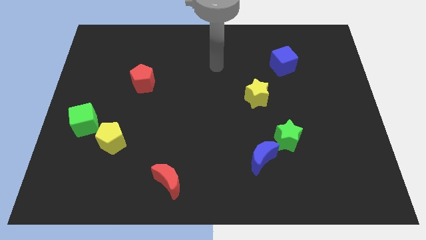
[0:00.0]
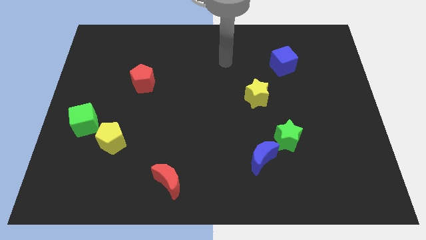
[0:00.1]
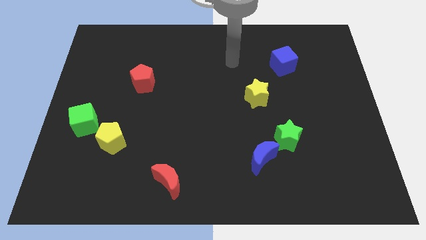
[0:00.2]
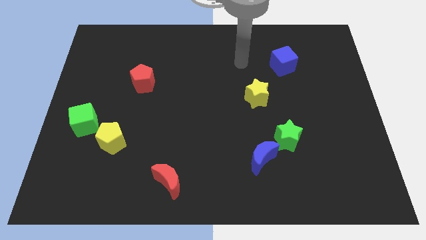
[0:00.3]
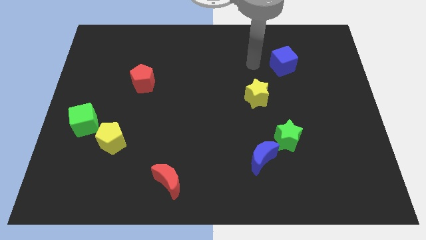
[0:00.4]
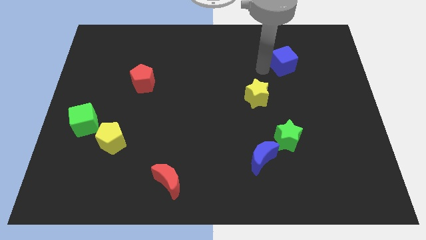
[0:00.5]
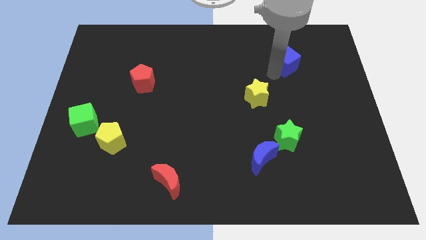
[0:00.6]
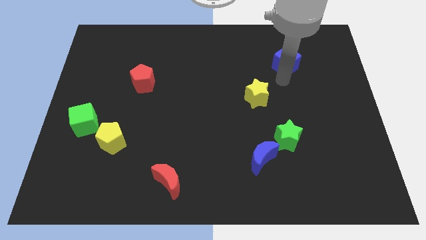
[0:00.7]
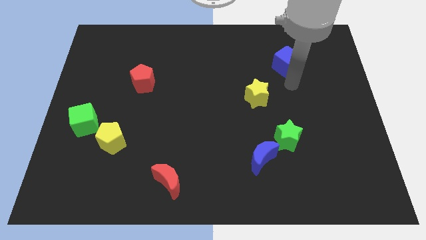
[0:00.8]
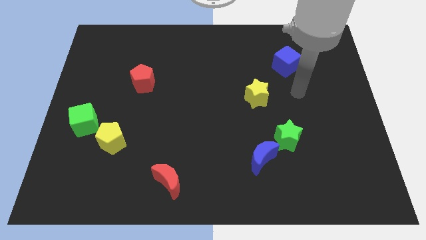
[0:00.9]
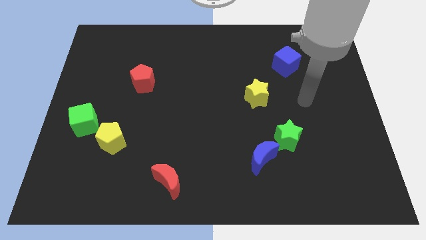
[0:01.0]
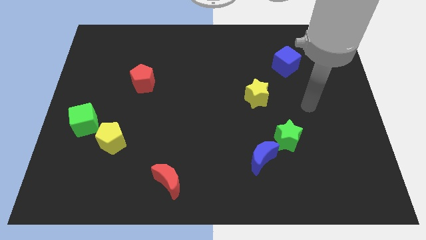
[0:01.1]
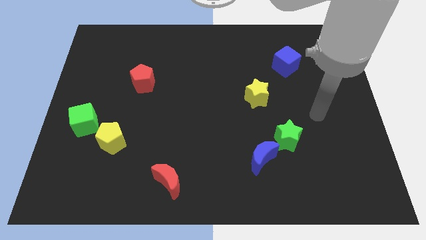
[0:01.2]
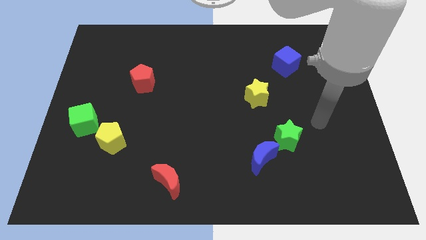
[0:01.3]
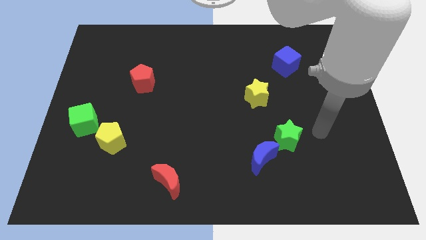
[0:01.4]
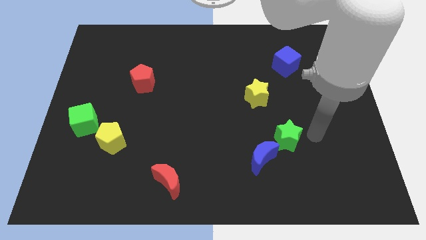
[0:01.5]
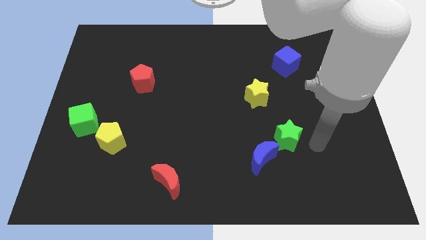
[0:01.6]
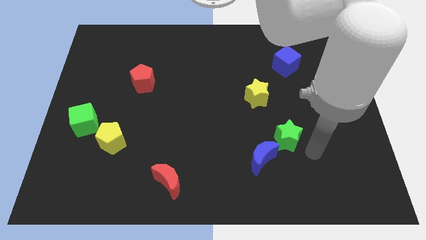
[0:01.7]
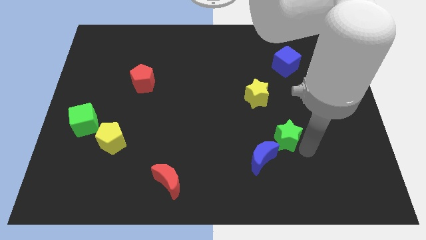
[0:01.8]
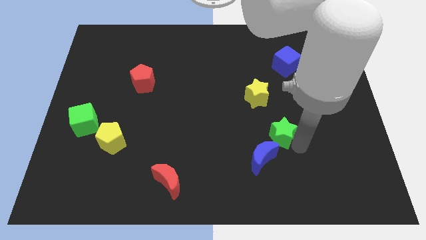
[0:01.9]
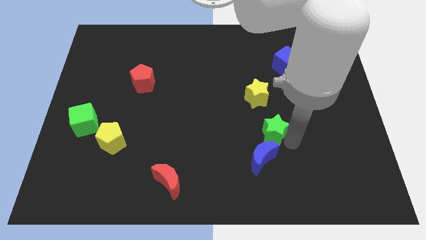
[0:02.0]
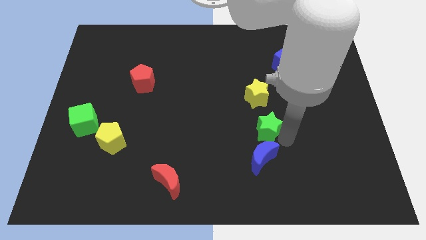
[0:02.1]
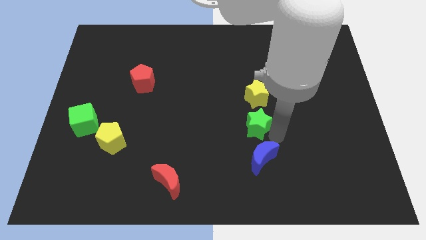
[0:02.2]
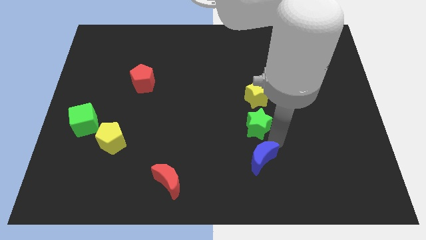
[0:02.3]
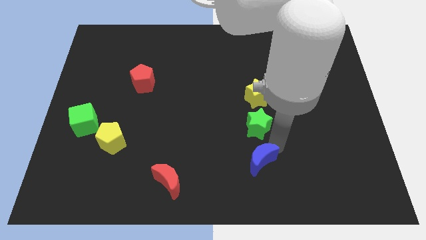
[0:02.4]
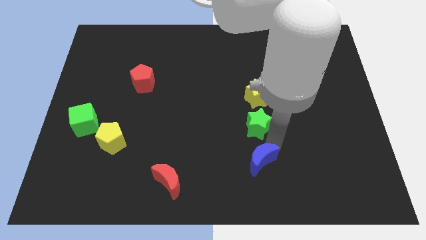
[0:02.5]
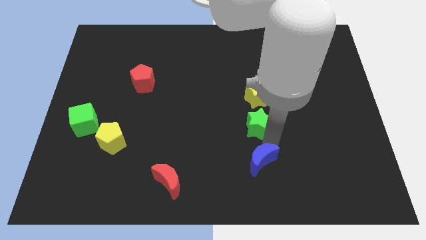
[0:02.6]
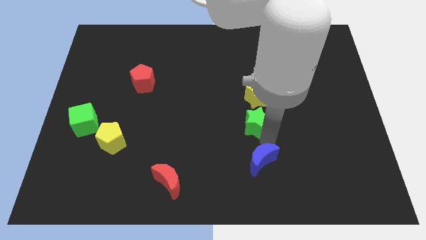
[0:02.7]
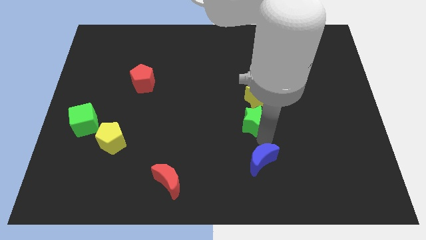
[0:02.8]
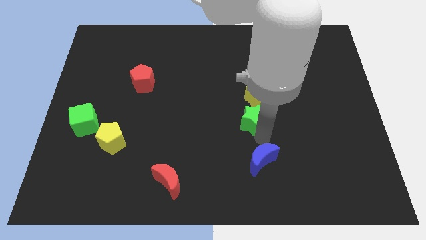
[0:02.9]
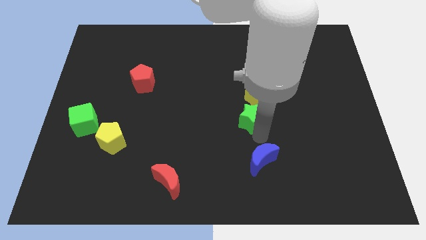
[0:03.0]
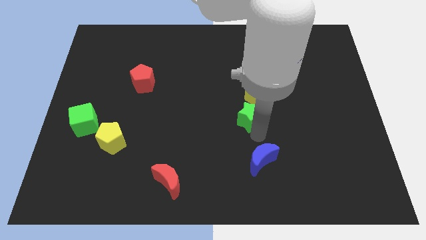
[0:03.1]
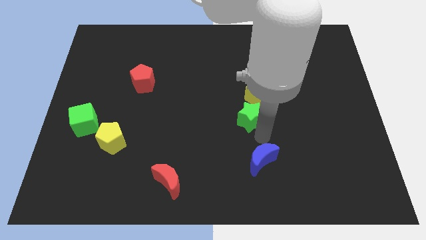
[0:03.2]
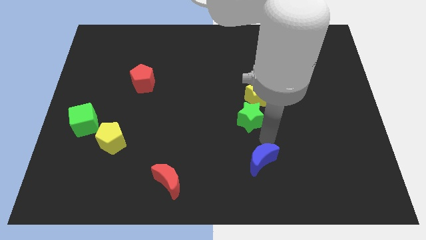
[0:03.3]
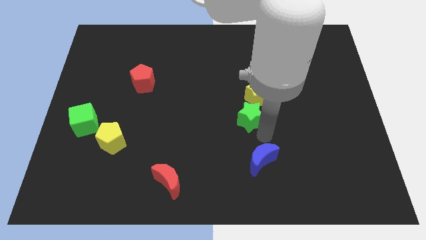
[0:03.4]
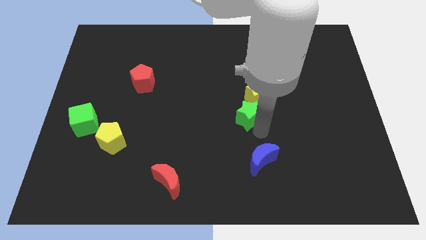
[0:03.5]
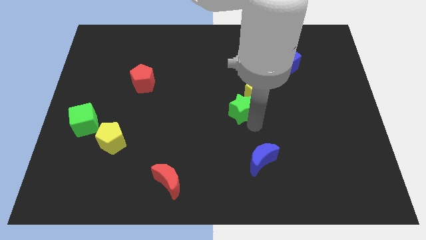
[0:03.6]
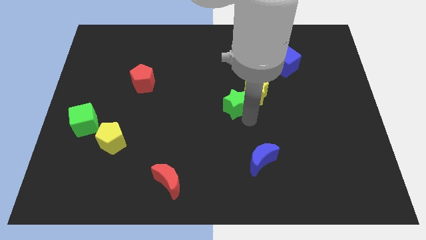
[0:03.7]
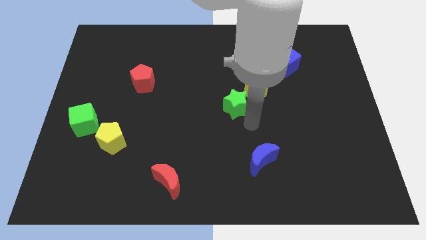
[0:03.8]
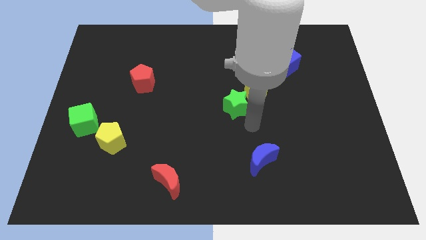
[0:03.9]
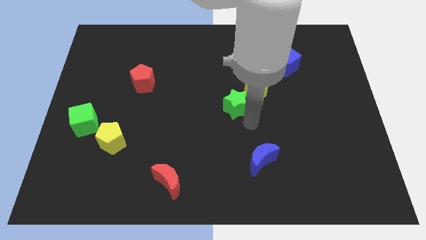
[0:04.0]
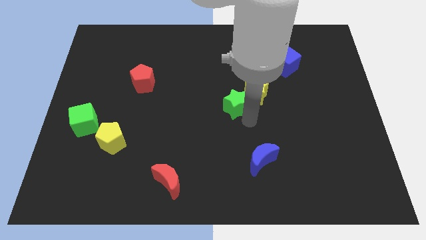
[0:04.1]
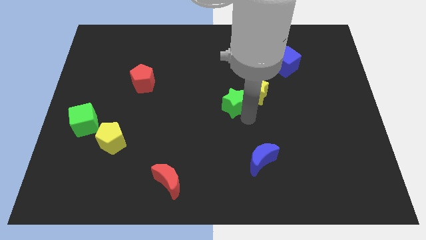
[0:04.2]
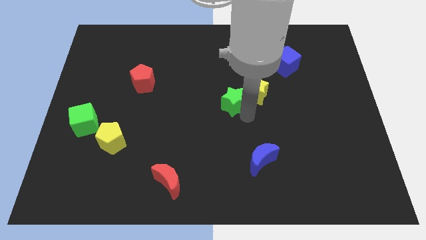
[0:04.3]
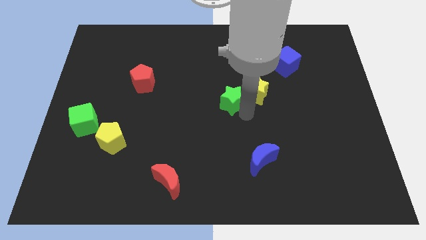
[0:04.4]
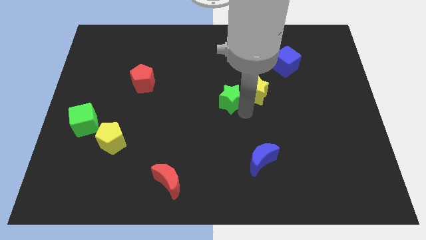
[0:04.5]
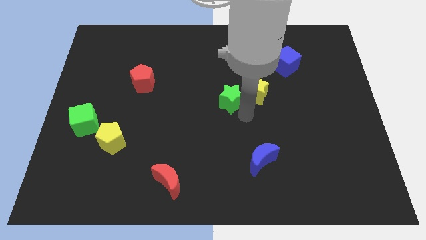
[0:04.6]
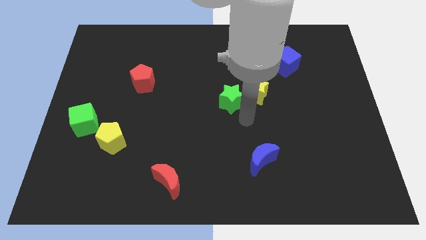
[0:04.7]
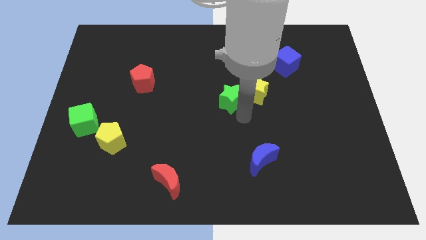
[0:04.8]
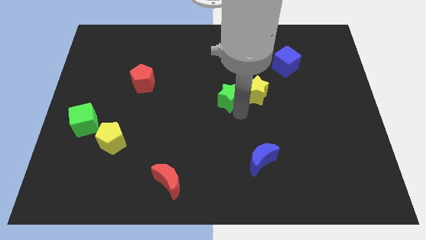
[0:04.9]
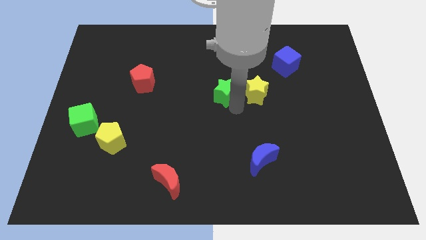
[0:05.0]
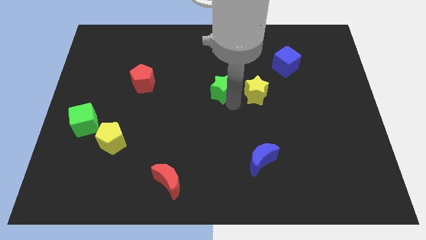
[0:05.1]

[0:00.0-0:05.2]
slide the green star diagonally up and left

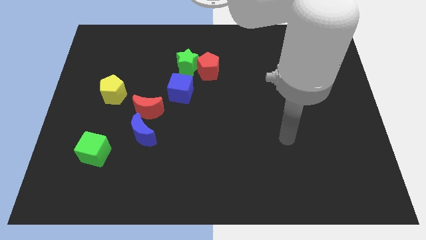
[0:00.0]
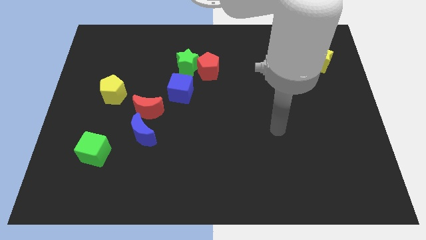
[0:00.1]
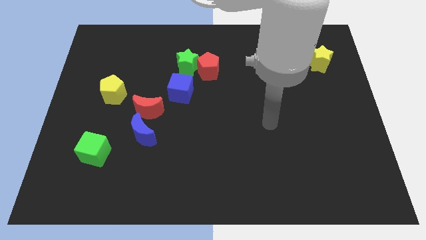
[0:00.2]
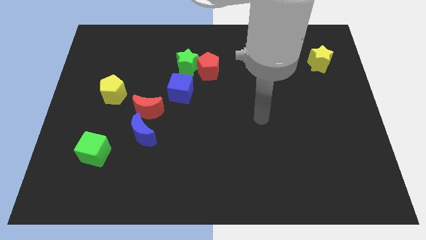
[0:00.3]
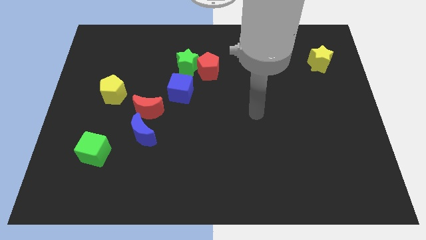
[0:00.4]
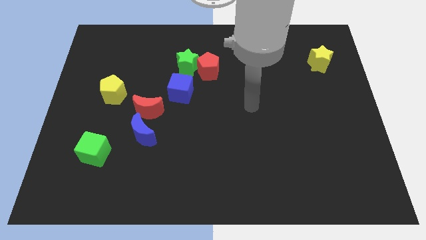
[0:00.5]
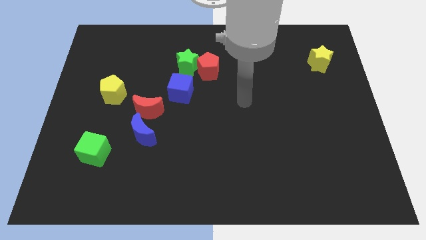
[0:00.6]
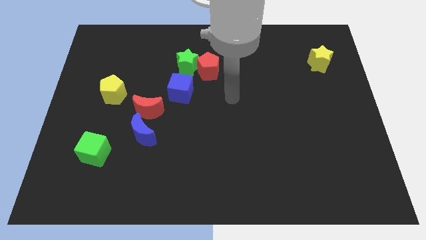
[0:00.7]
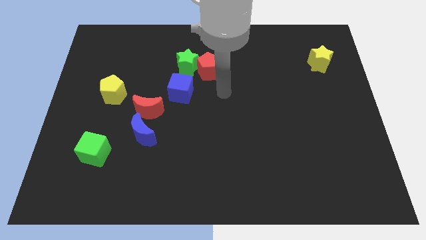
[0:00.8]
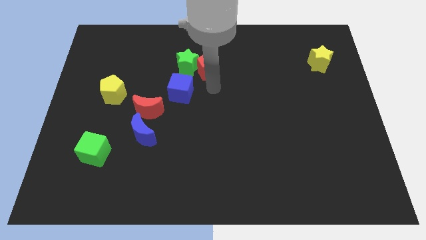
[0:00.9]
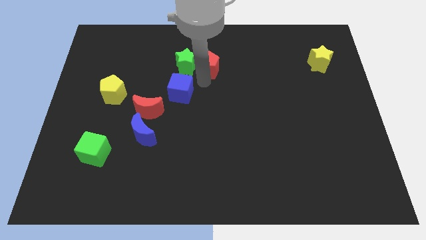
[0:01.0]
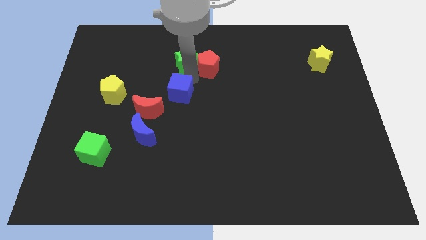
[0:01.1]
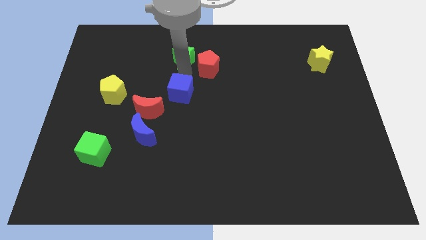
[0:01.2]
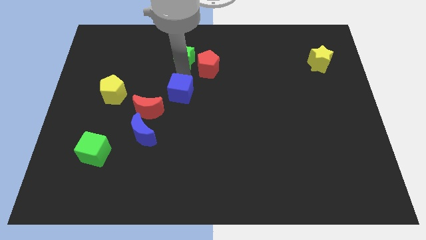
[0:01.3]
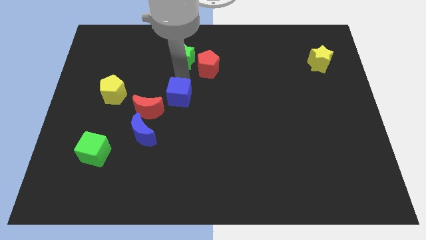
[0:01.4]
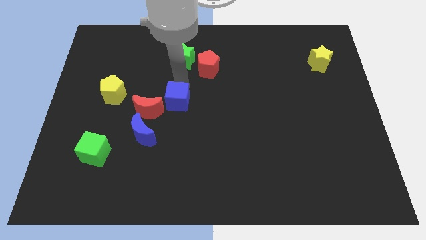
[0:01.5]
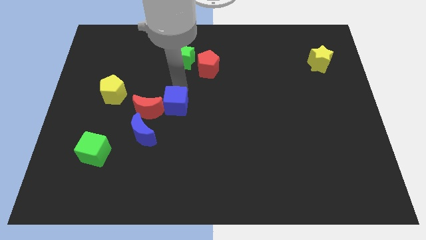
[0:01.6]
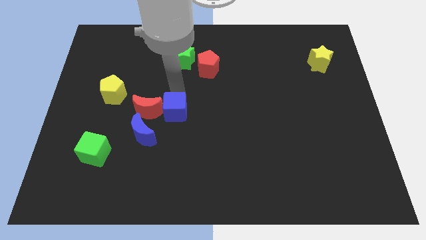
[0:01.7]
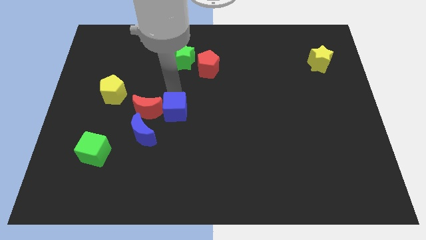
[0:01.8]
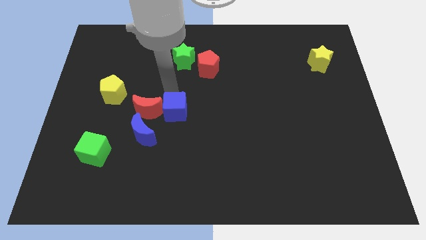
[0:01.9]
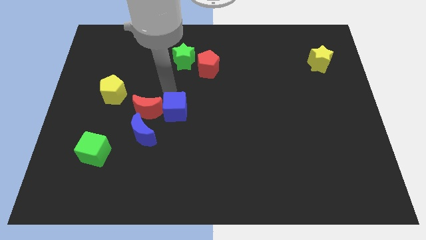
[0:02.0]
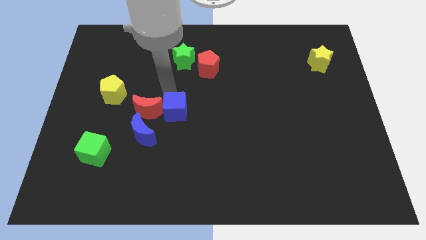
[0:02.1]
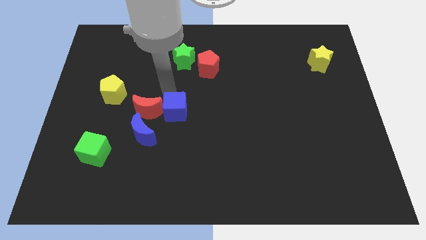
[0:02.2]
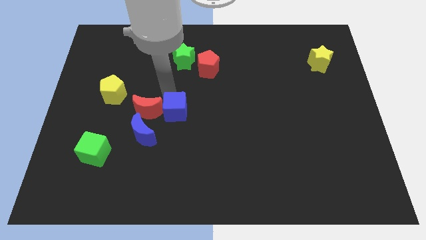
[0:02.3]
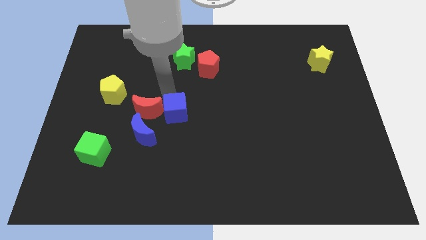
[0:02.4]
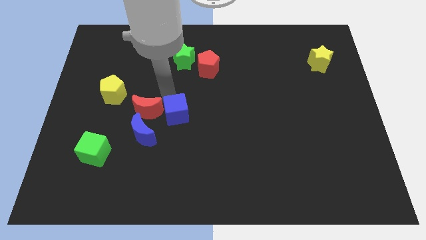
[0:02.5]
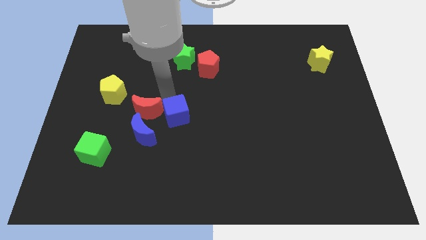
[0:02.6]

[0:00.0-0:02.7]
push the blue cube down a little bit

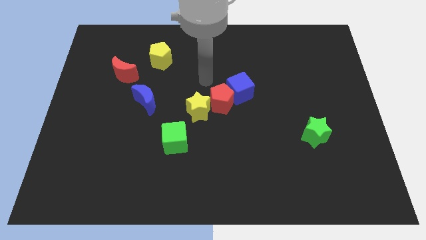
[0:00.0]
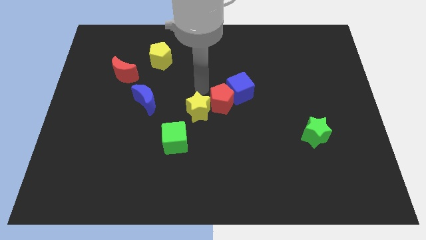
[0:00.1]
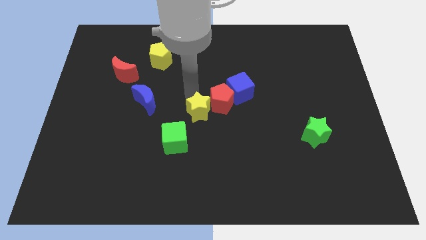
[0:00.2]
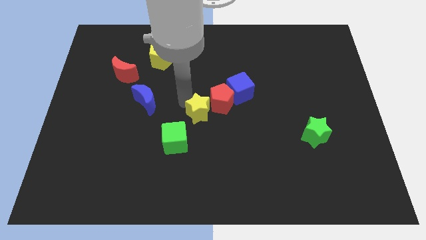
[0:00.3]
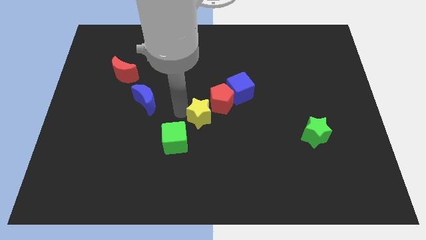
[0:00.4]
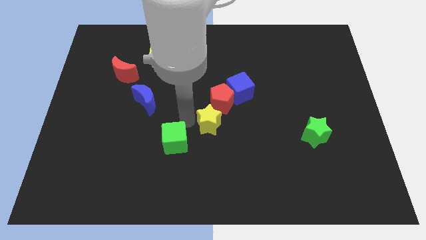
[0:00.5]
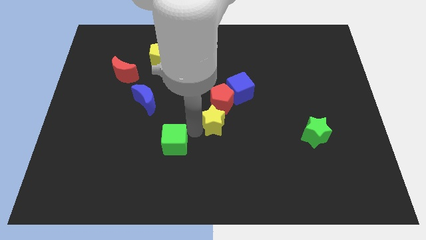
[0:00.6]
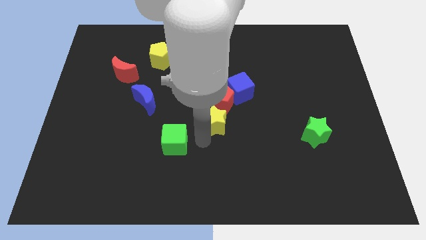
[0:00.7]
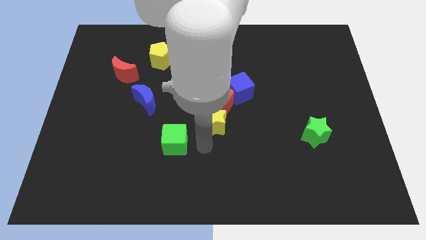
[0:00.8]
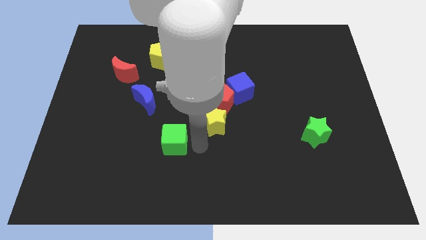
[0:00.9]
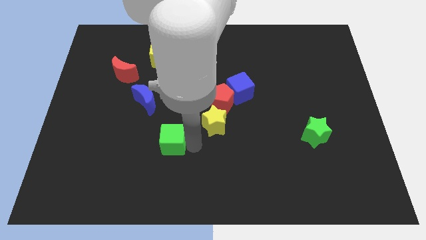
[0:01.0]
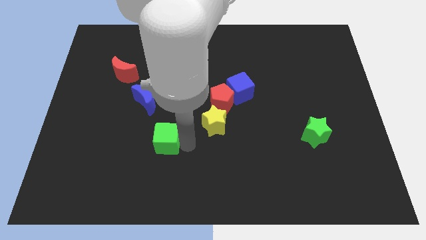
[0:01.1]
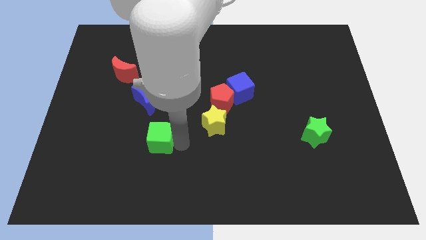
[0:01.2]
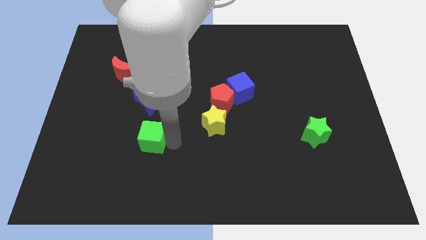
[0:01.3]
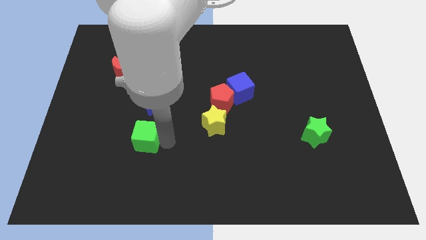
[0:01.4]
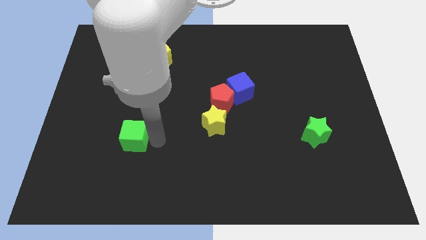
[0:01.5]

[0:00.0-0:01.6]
slightly push the green cube left
